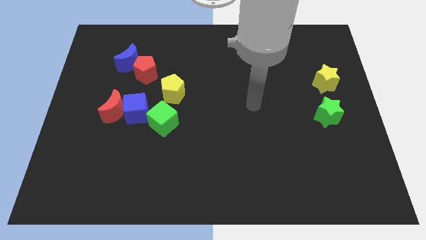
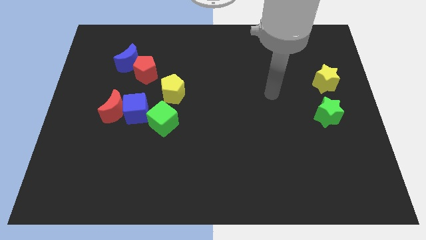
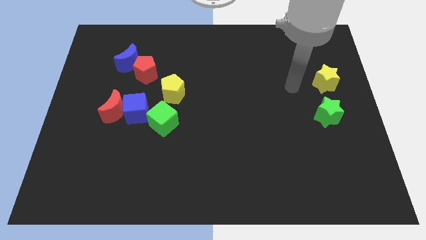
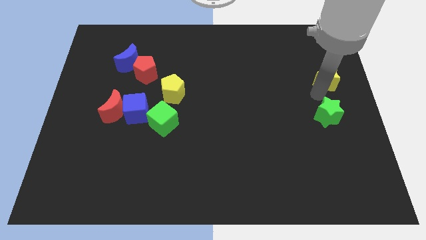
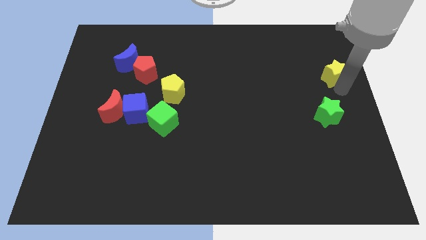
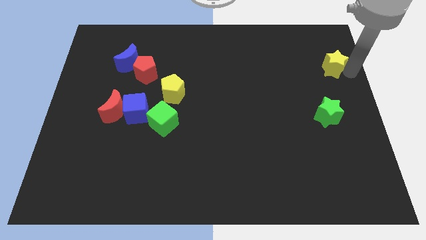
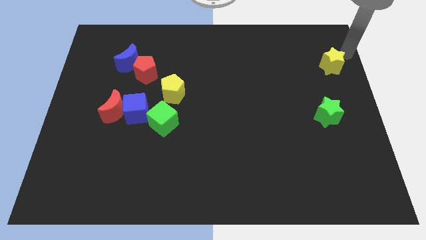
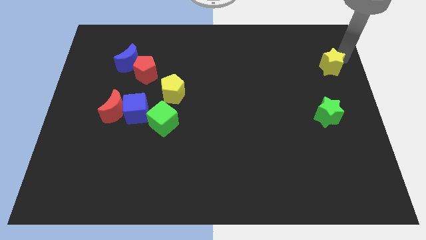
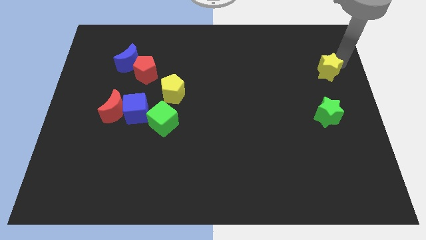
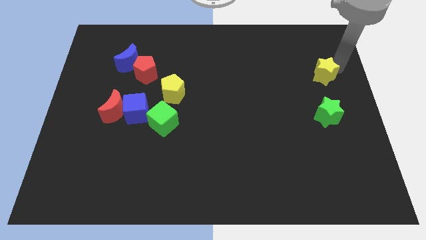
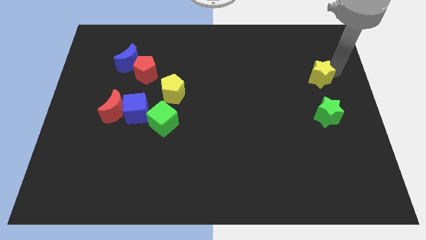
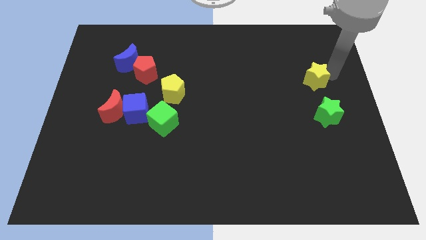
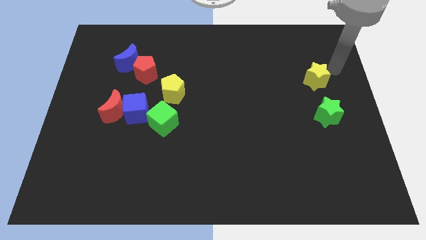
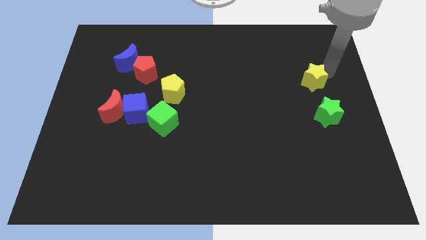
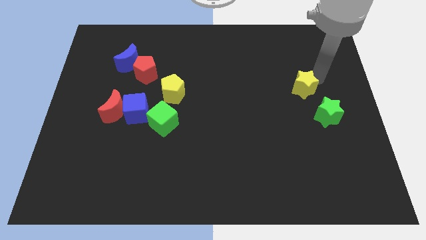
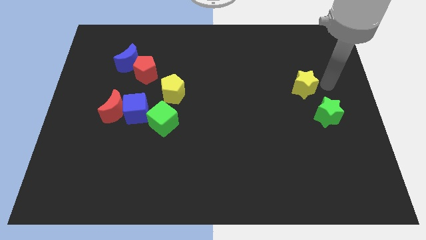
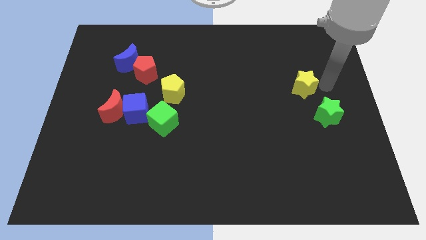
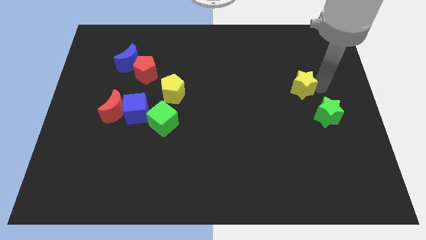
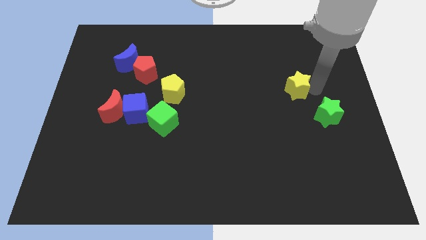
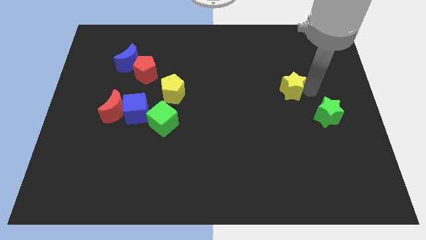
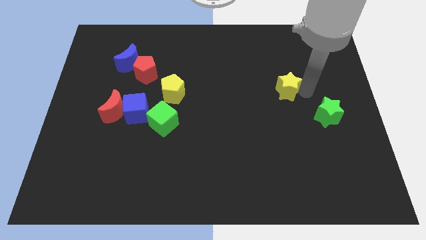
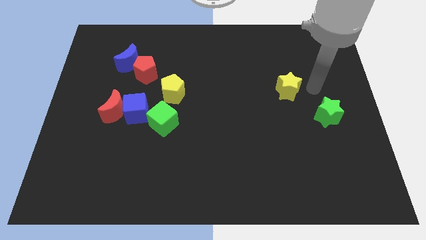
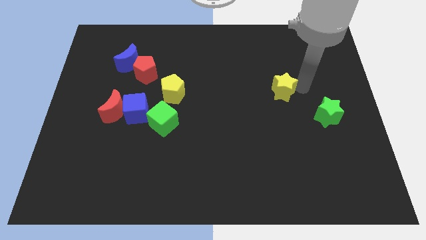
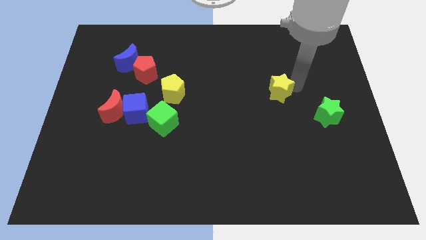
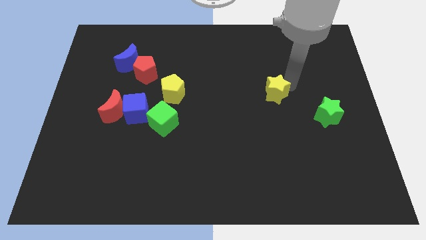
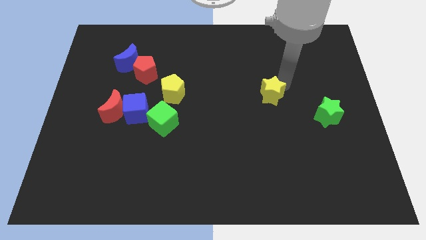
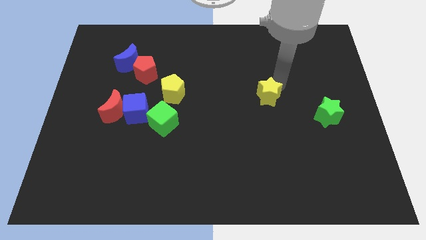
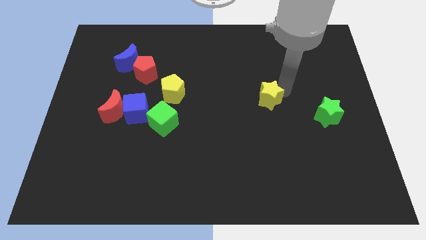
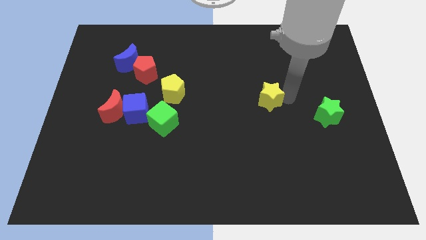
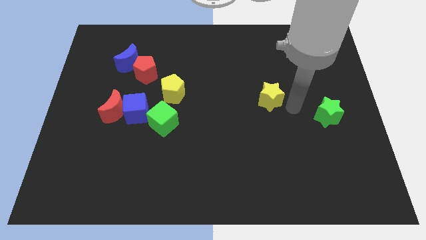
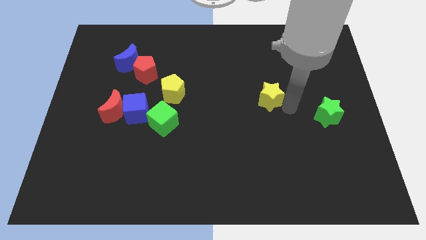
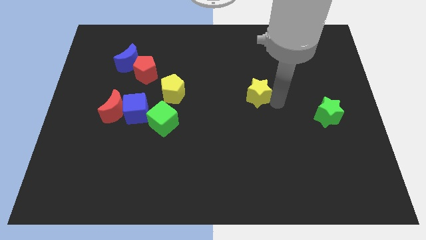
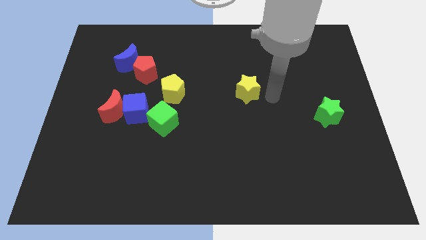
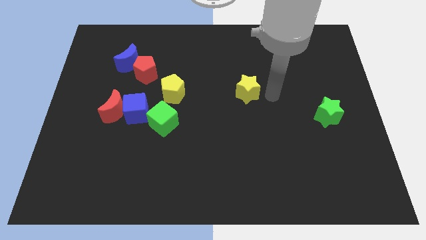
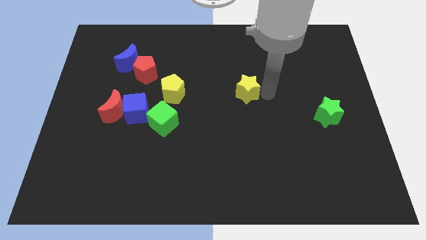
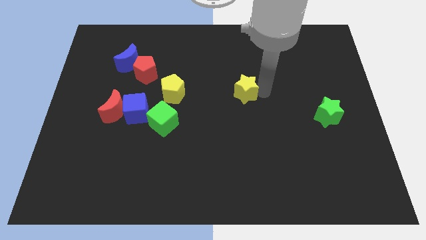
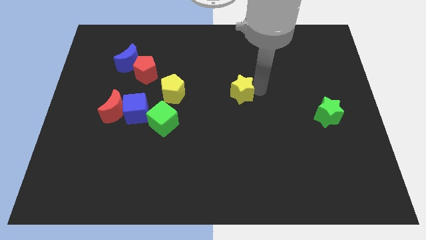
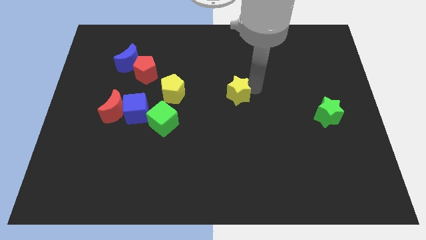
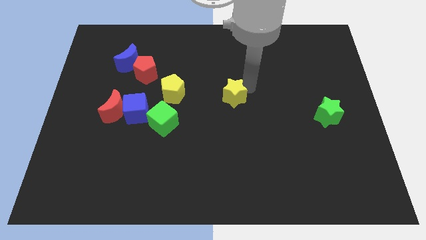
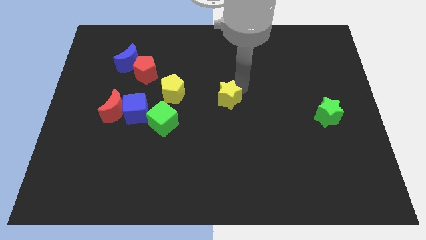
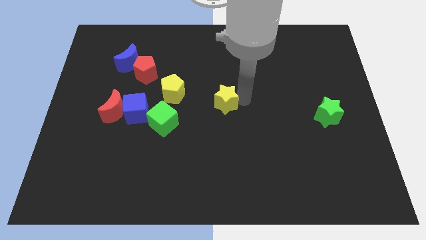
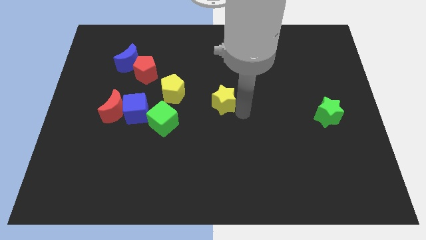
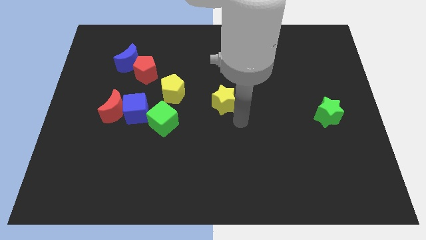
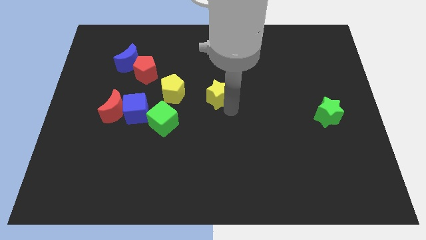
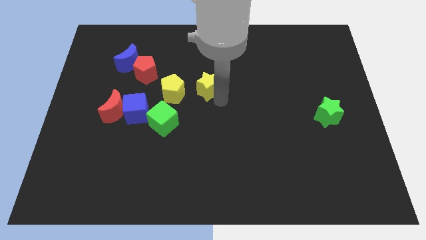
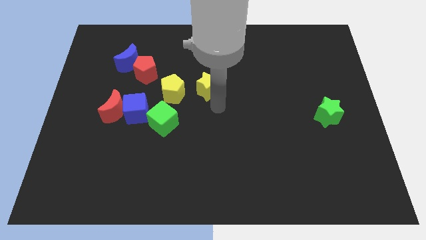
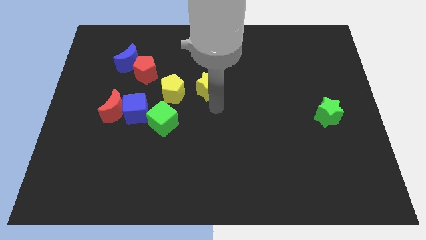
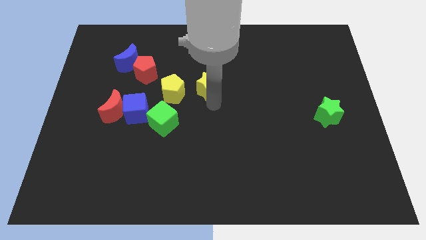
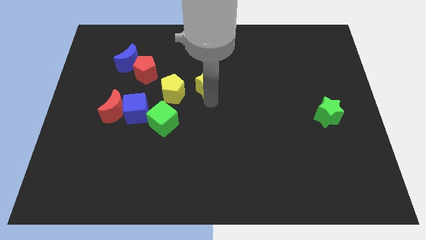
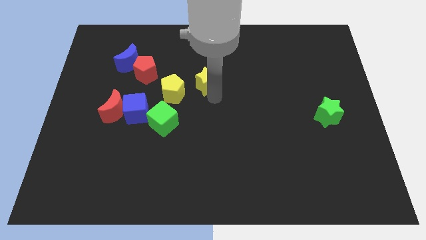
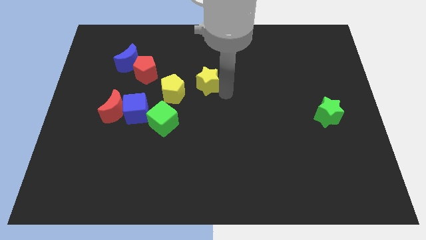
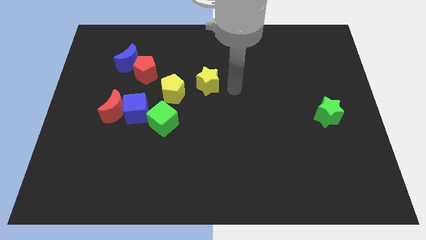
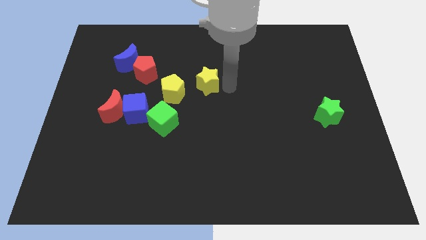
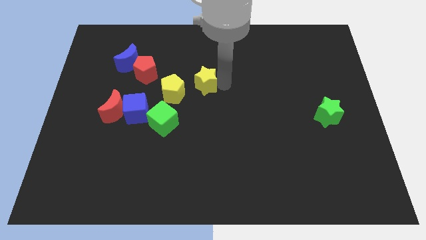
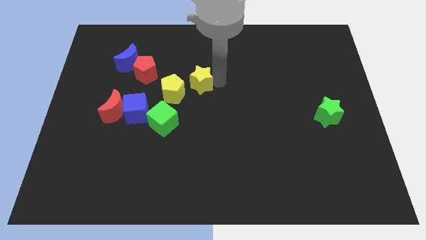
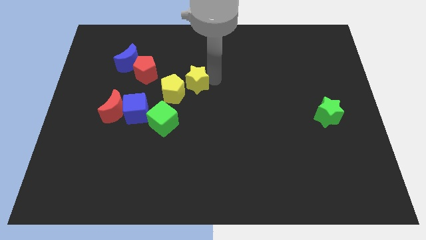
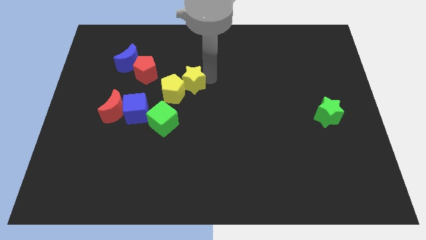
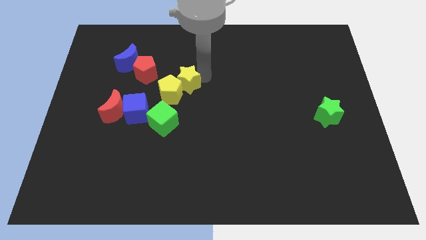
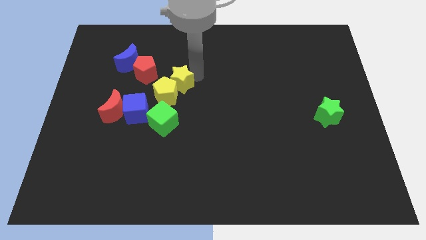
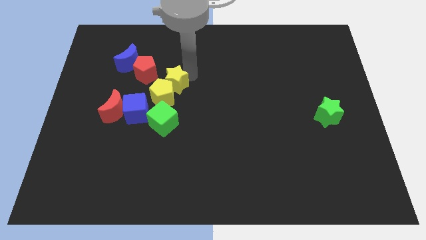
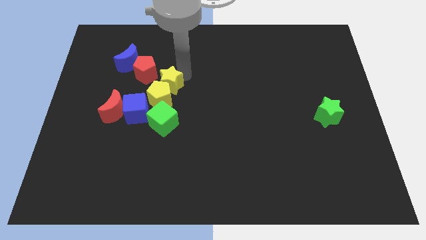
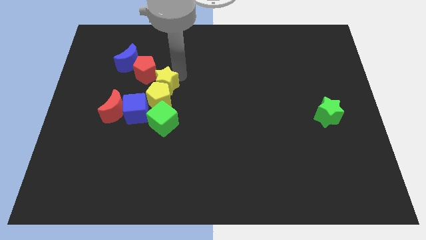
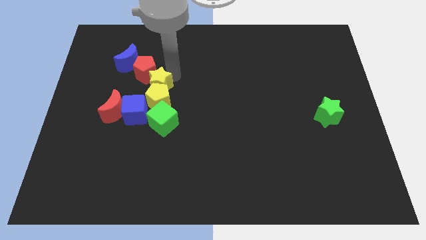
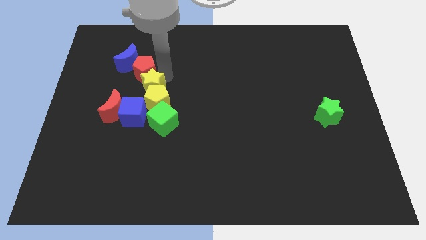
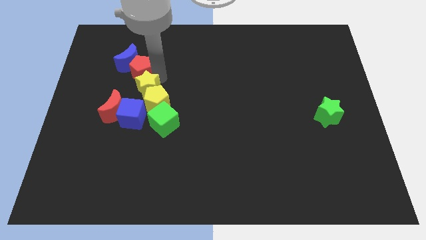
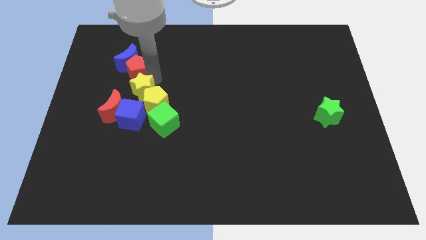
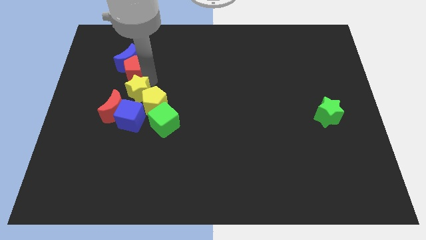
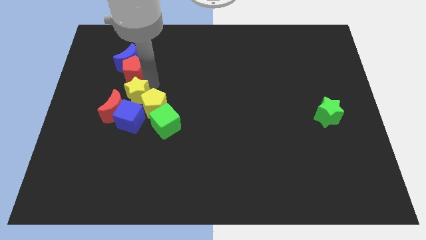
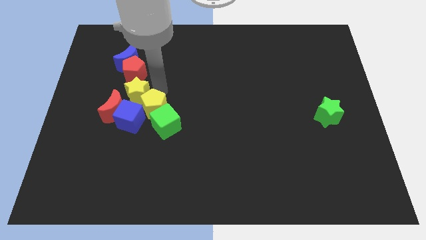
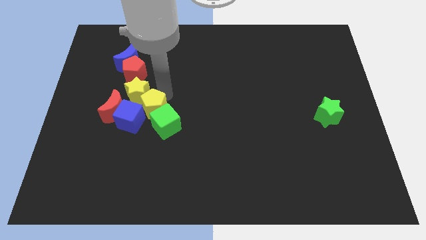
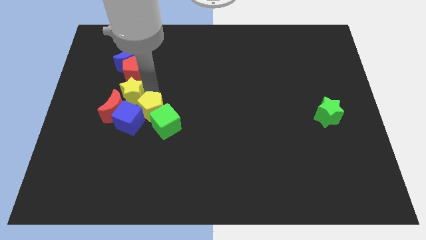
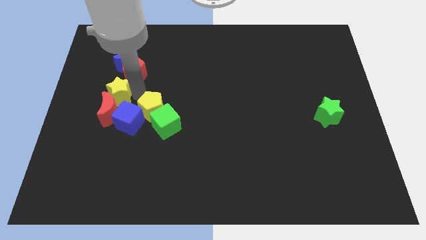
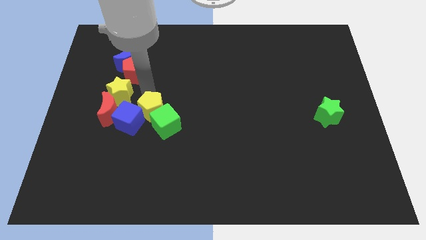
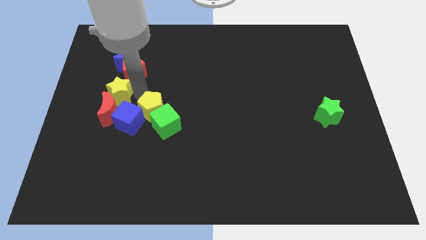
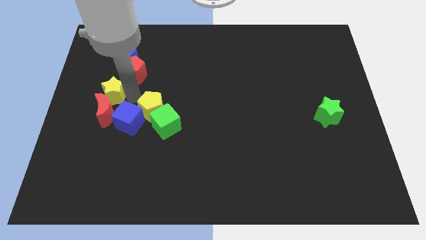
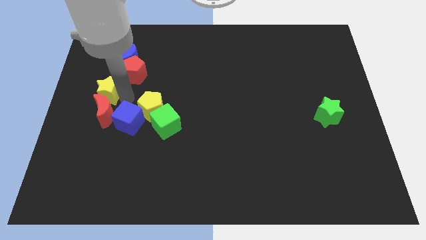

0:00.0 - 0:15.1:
put the yellow star to the center left
